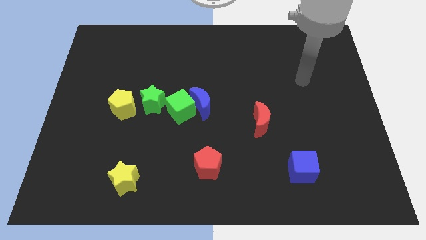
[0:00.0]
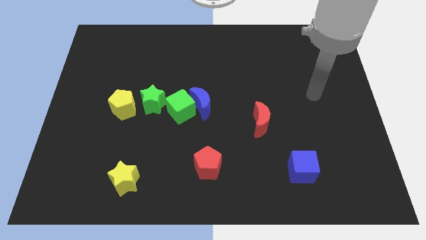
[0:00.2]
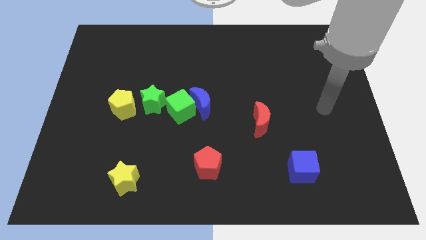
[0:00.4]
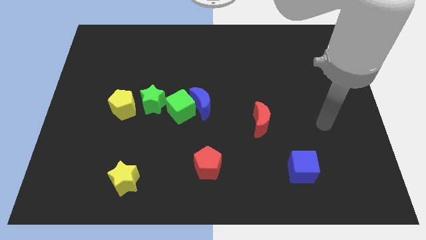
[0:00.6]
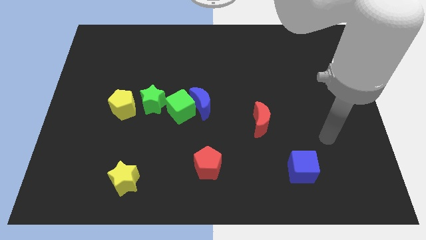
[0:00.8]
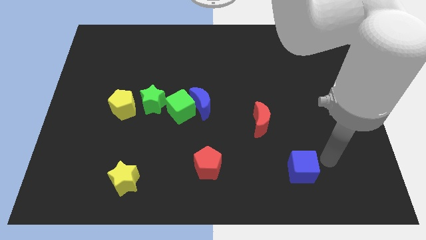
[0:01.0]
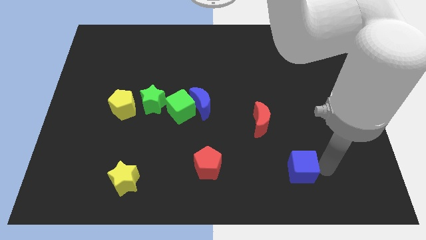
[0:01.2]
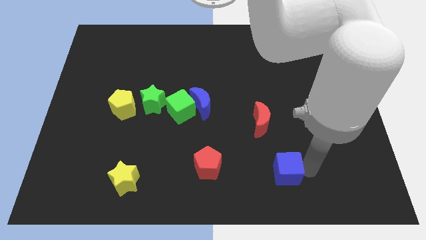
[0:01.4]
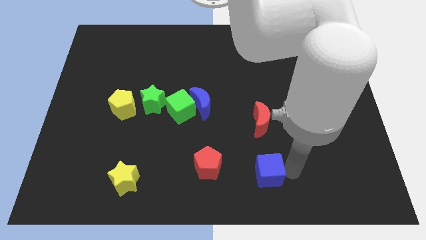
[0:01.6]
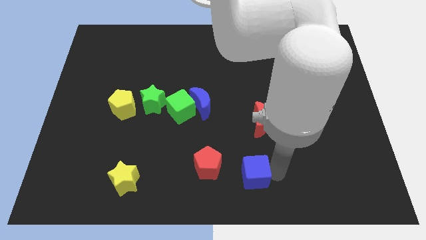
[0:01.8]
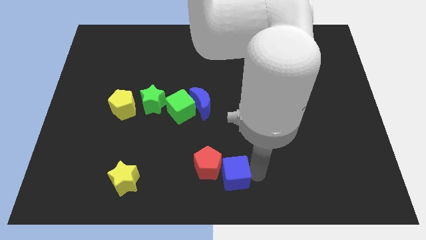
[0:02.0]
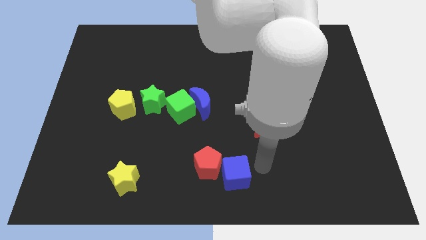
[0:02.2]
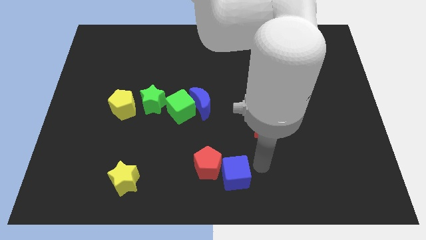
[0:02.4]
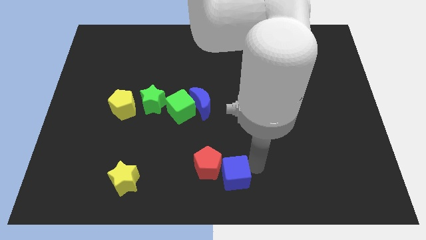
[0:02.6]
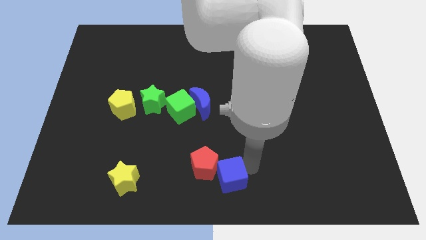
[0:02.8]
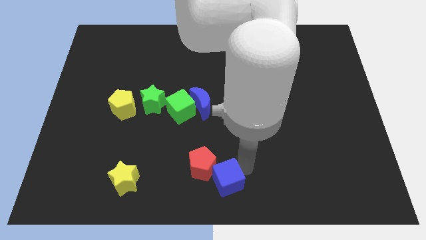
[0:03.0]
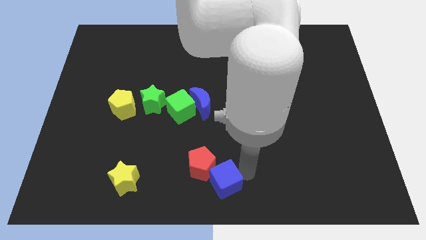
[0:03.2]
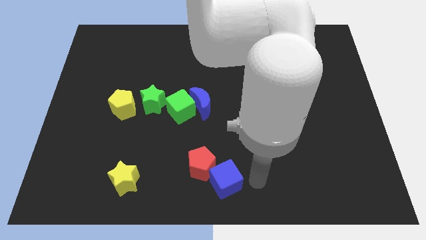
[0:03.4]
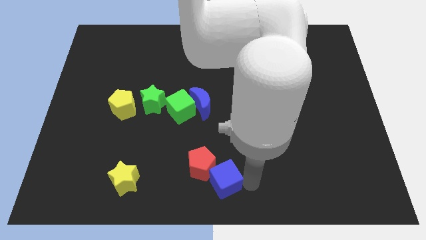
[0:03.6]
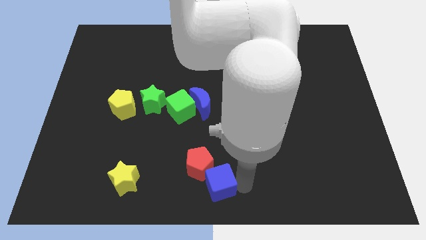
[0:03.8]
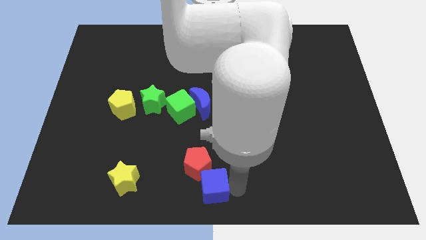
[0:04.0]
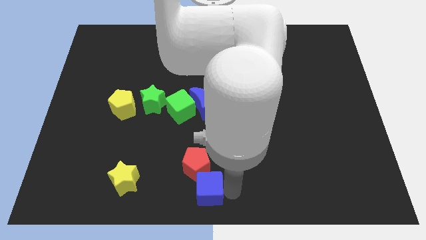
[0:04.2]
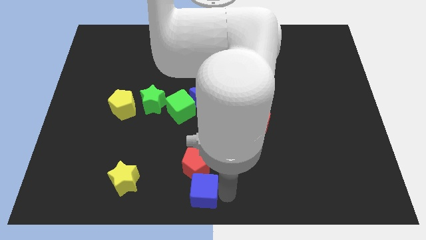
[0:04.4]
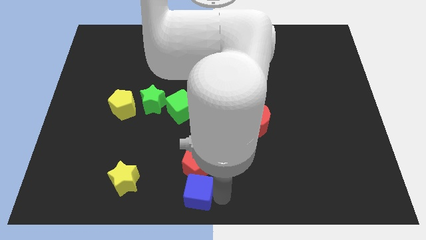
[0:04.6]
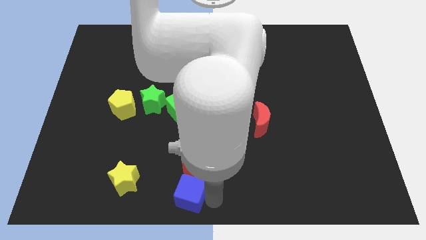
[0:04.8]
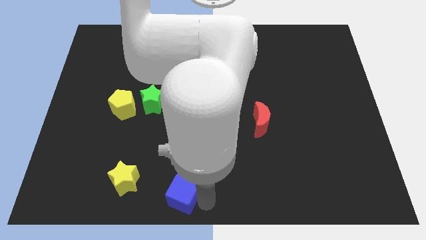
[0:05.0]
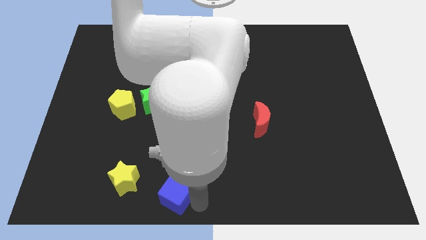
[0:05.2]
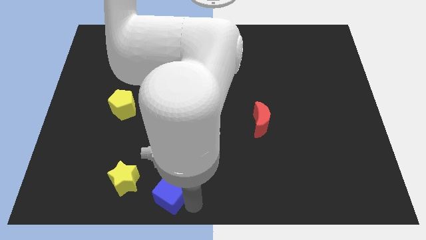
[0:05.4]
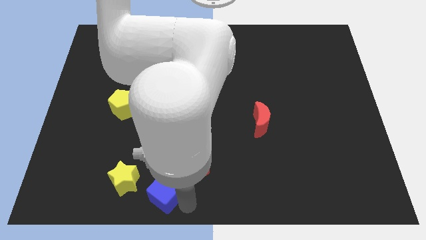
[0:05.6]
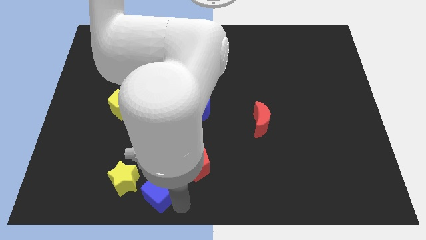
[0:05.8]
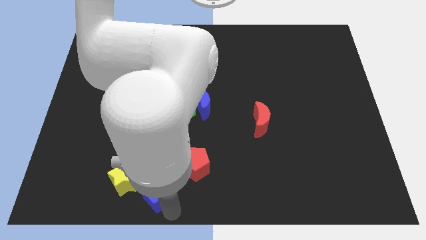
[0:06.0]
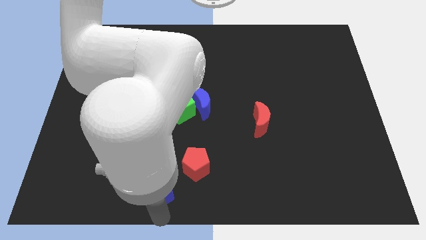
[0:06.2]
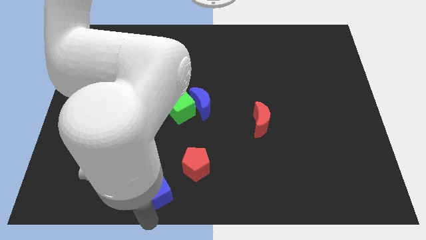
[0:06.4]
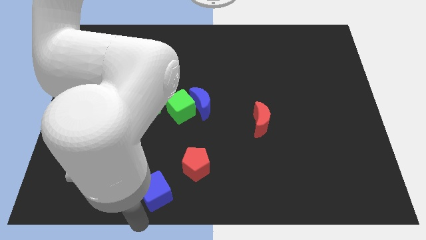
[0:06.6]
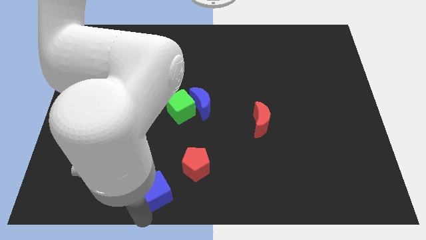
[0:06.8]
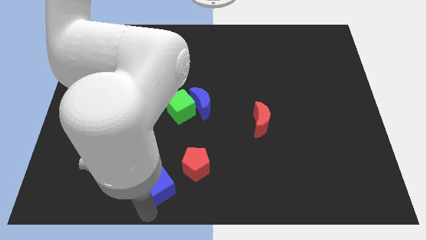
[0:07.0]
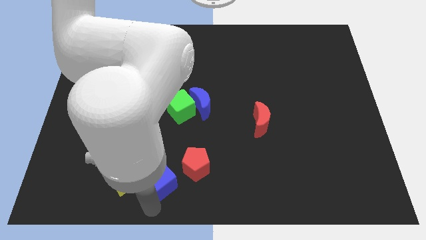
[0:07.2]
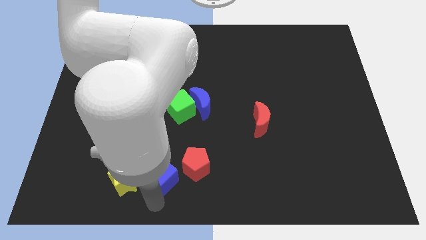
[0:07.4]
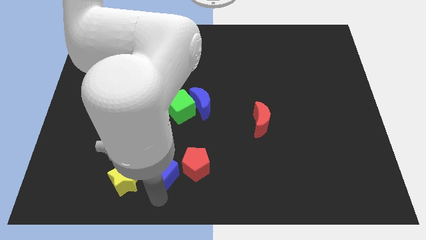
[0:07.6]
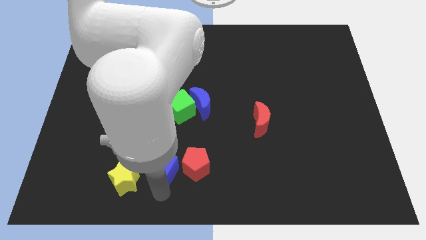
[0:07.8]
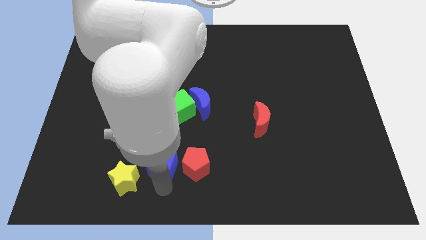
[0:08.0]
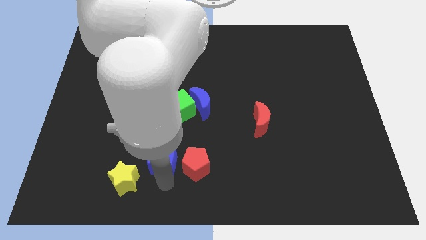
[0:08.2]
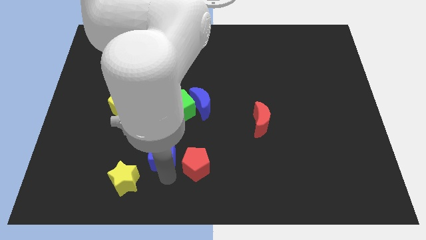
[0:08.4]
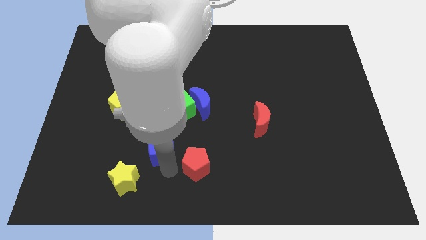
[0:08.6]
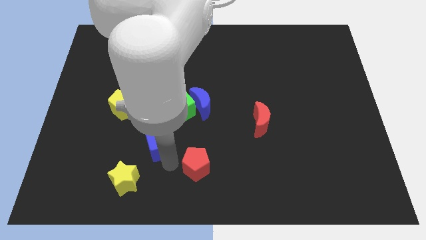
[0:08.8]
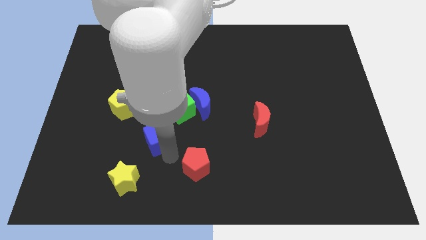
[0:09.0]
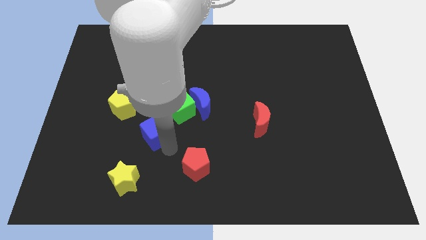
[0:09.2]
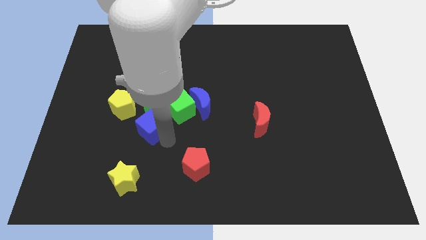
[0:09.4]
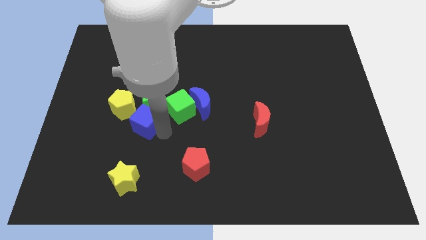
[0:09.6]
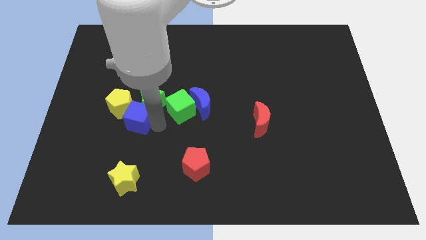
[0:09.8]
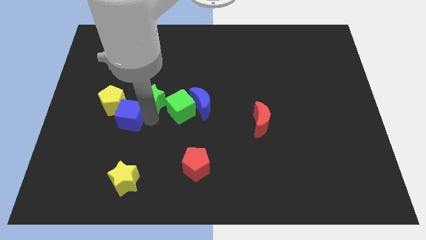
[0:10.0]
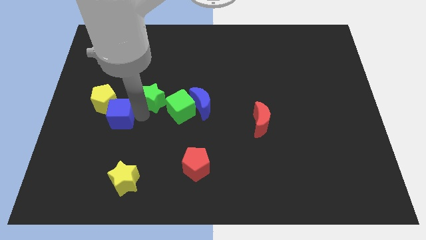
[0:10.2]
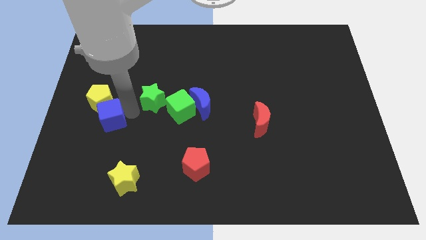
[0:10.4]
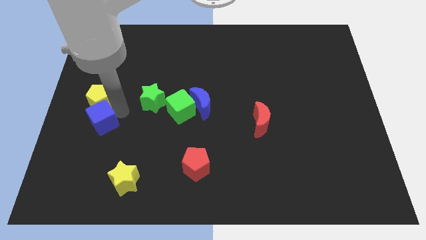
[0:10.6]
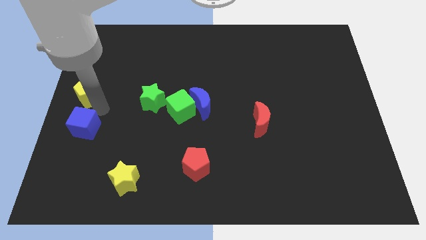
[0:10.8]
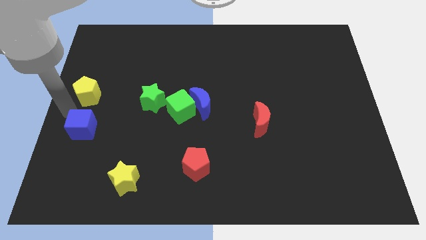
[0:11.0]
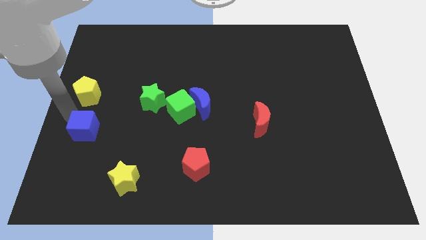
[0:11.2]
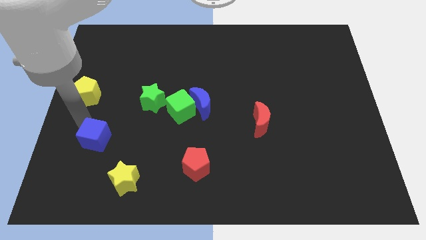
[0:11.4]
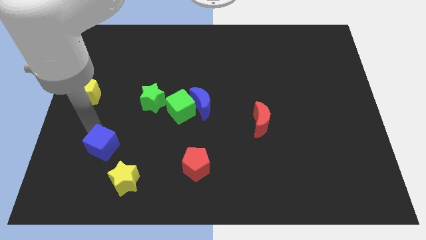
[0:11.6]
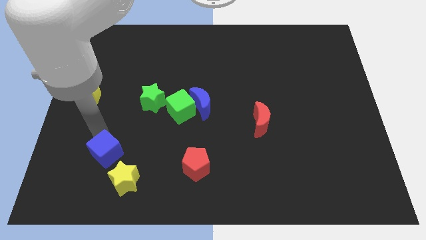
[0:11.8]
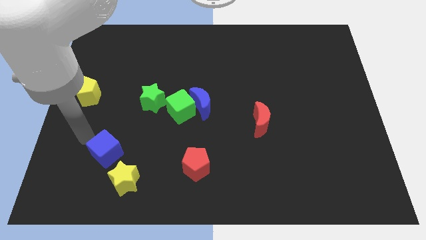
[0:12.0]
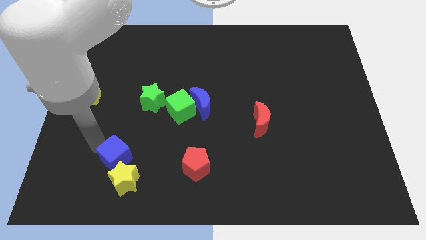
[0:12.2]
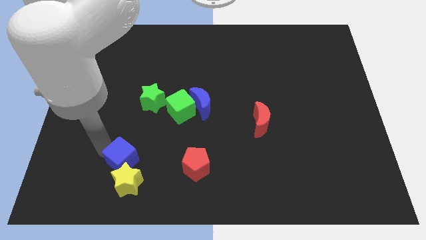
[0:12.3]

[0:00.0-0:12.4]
push the blue cube towards the yellow star

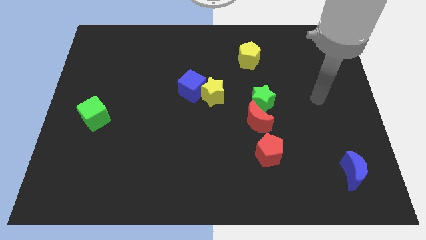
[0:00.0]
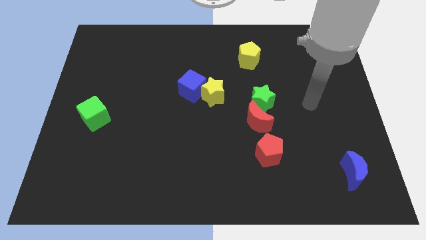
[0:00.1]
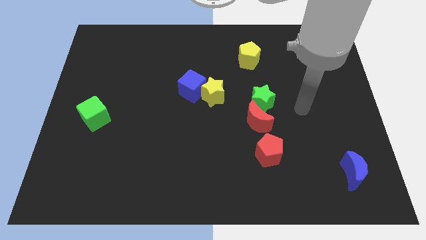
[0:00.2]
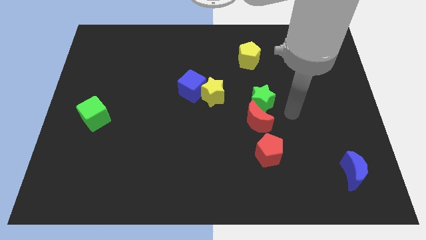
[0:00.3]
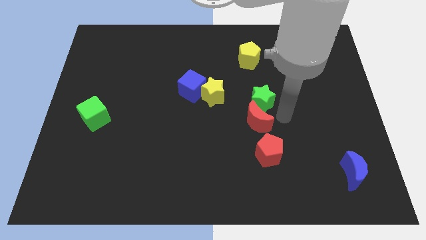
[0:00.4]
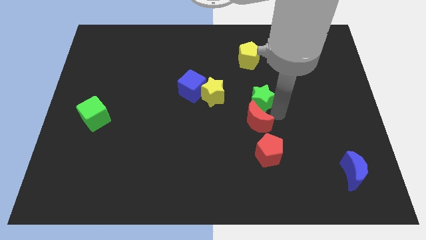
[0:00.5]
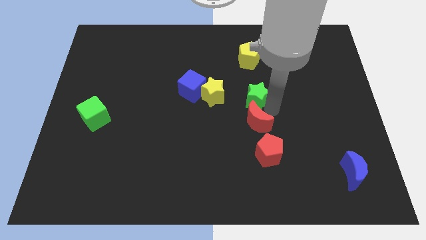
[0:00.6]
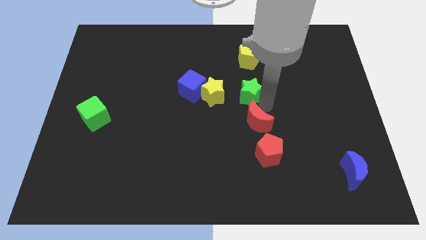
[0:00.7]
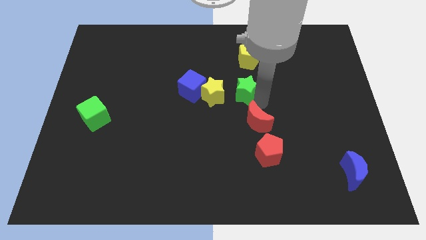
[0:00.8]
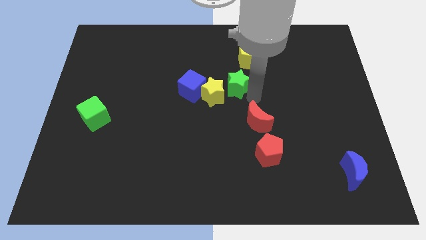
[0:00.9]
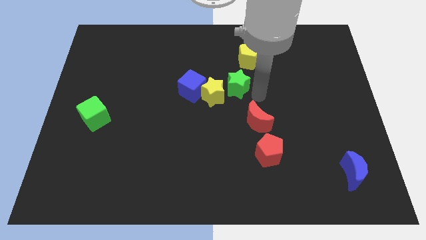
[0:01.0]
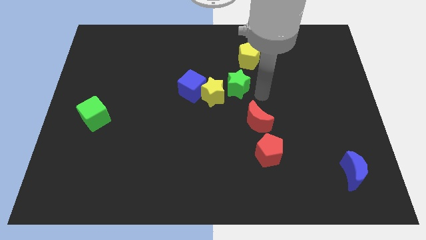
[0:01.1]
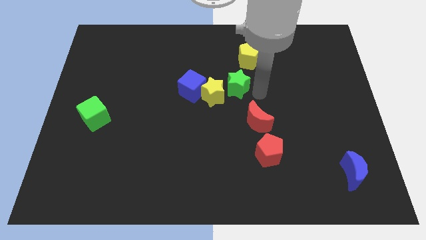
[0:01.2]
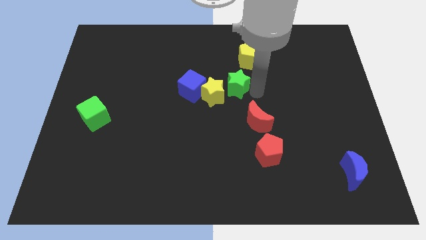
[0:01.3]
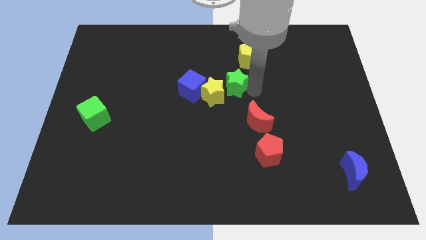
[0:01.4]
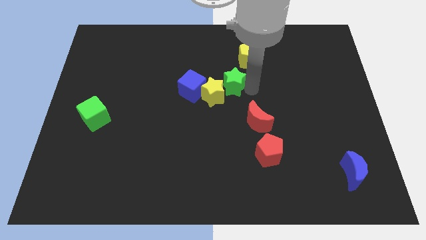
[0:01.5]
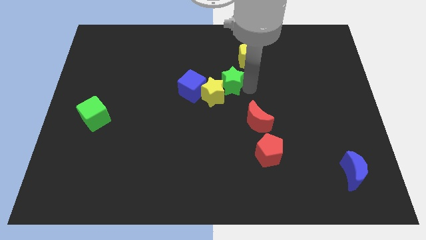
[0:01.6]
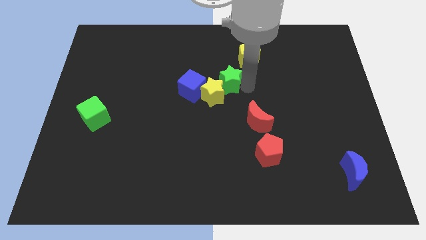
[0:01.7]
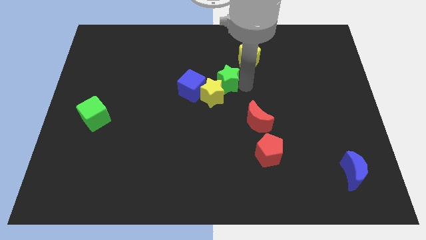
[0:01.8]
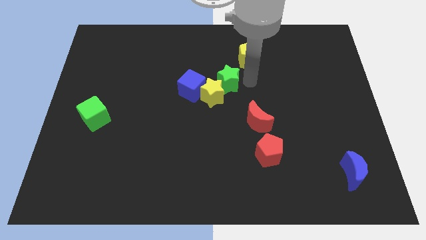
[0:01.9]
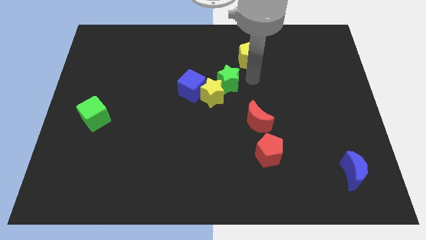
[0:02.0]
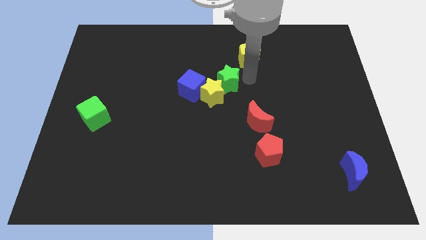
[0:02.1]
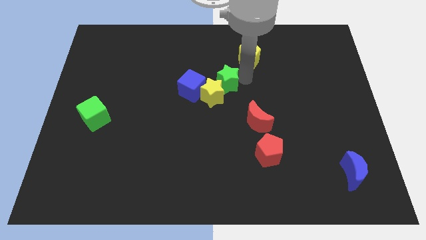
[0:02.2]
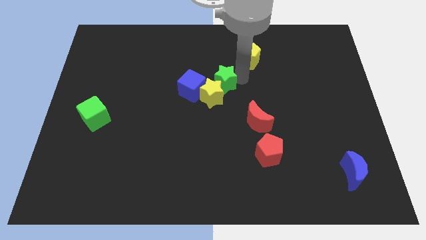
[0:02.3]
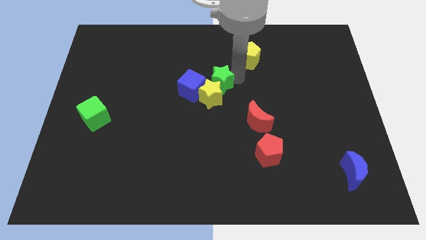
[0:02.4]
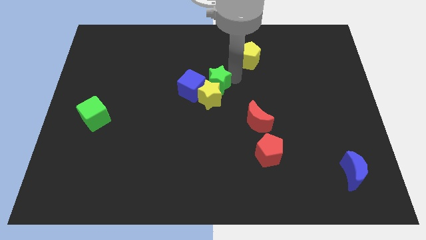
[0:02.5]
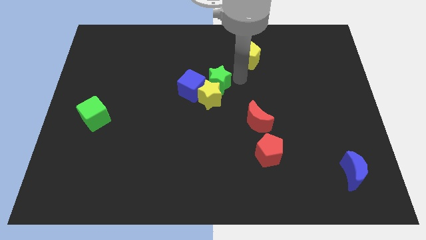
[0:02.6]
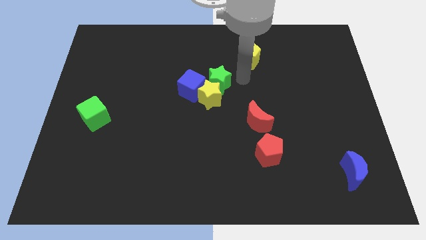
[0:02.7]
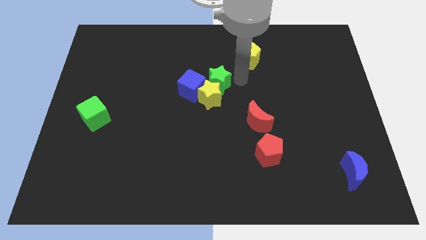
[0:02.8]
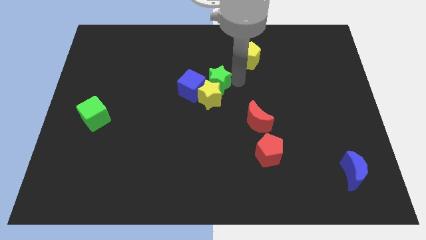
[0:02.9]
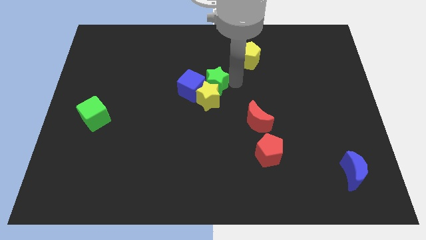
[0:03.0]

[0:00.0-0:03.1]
push the green star close to the blue cube
